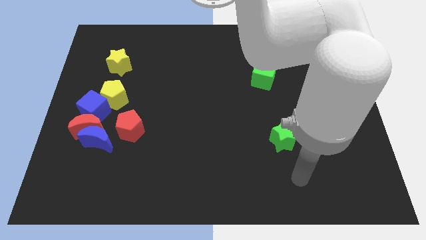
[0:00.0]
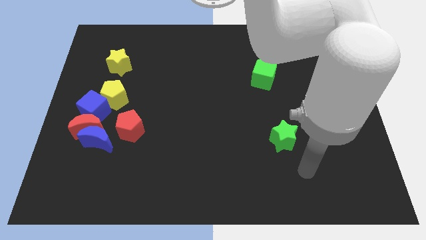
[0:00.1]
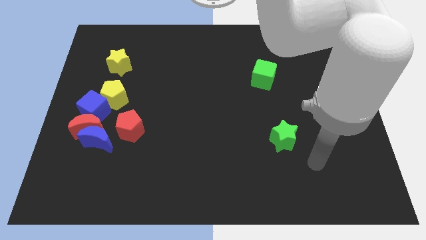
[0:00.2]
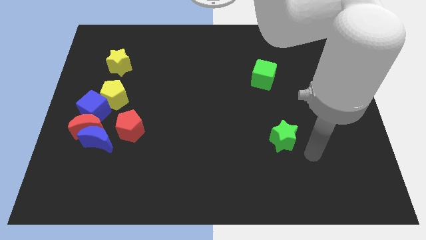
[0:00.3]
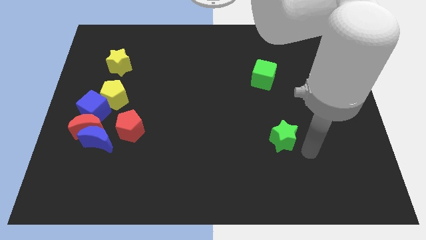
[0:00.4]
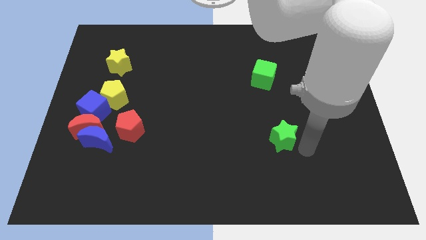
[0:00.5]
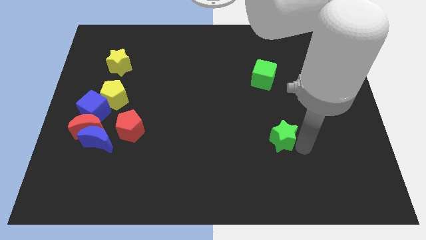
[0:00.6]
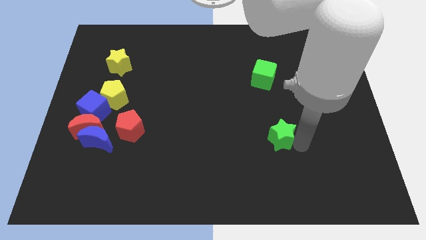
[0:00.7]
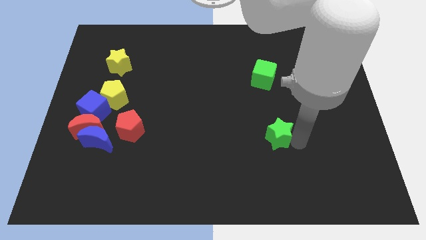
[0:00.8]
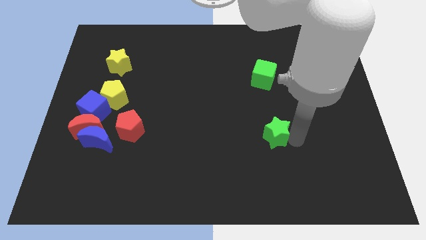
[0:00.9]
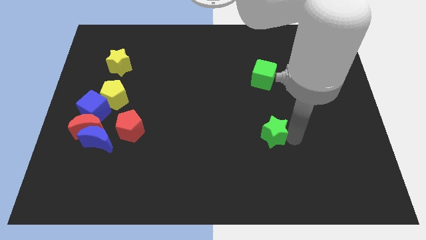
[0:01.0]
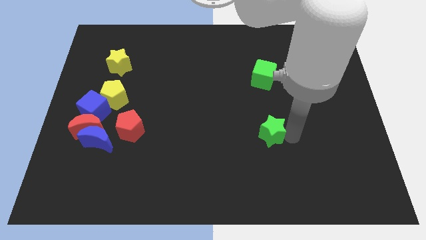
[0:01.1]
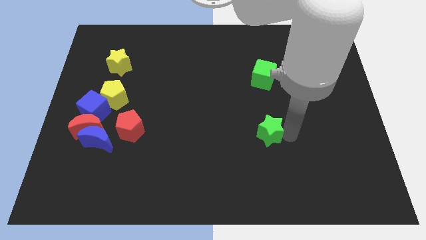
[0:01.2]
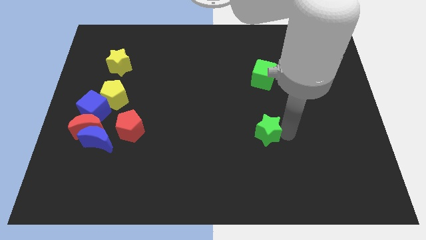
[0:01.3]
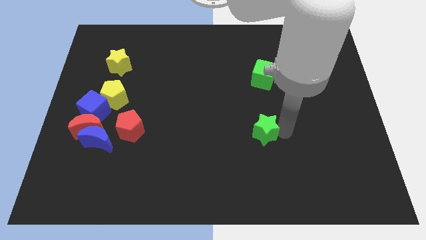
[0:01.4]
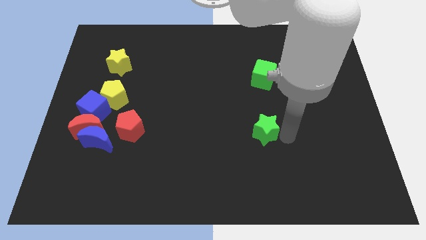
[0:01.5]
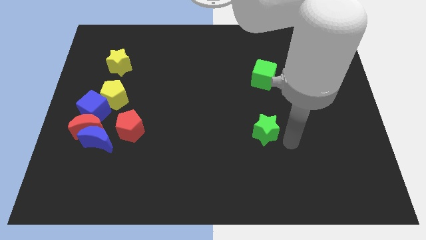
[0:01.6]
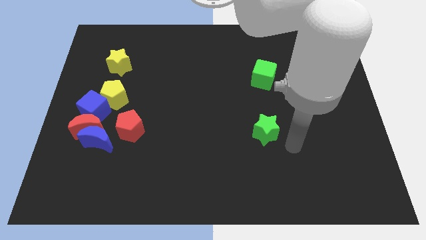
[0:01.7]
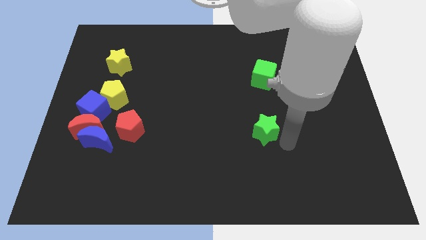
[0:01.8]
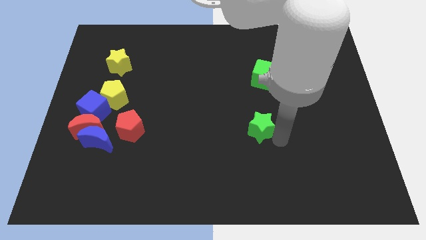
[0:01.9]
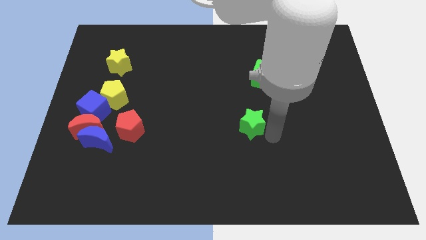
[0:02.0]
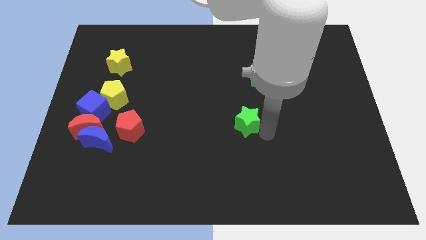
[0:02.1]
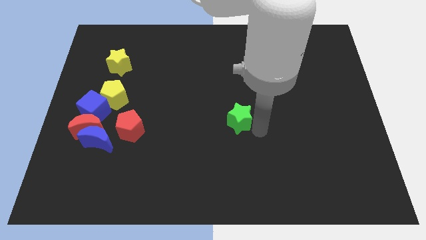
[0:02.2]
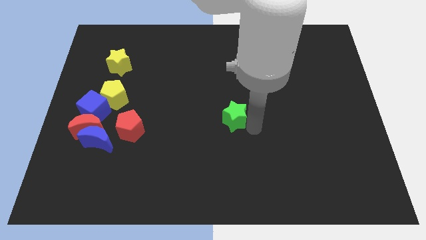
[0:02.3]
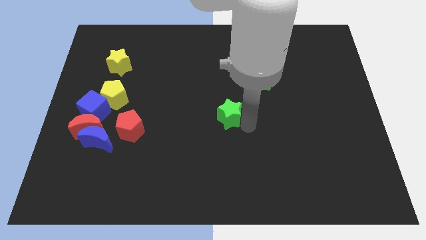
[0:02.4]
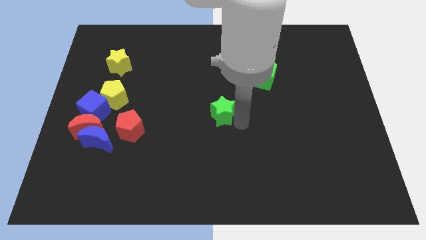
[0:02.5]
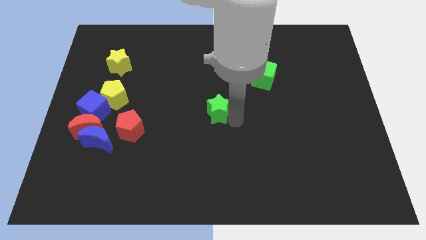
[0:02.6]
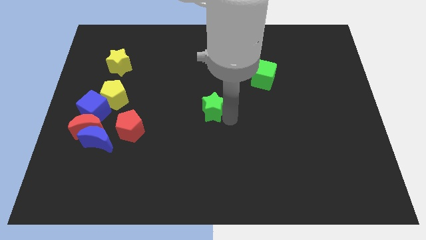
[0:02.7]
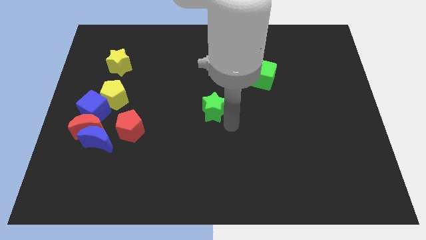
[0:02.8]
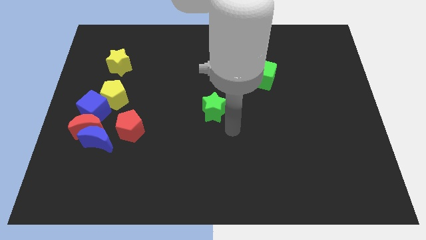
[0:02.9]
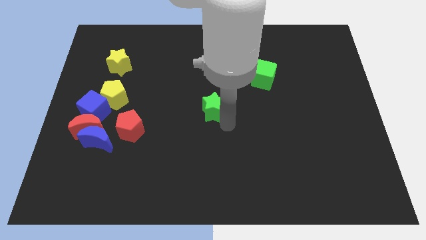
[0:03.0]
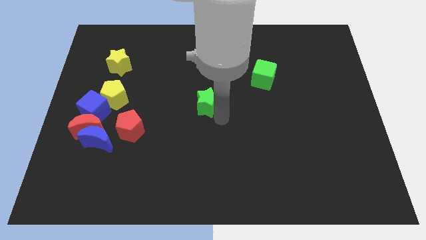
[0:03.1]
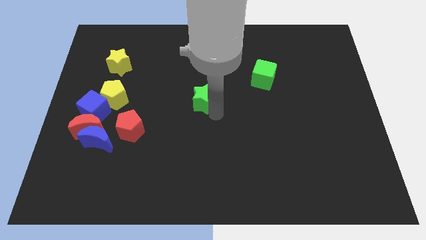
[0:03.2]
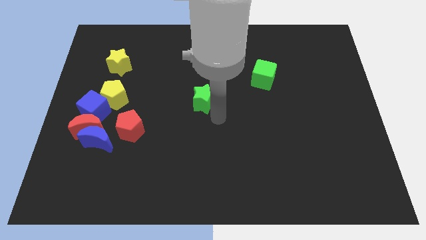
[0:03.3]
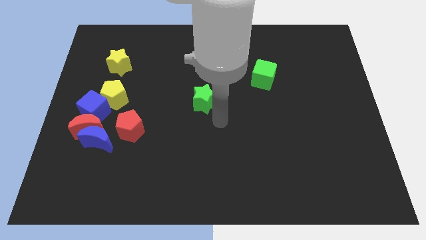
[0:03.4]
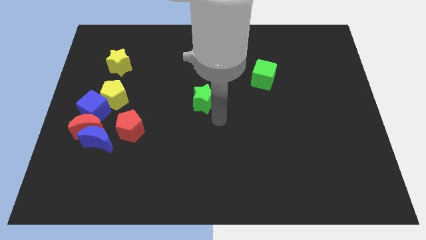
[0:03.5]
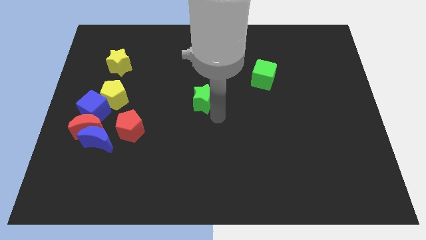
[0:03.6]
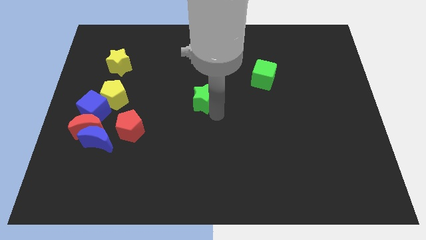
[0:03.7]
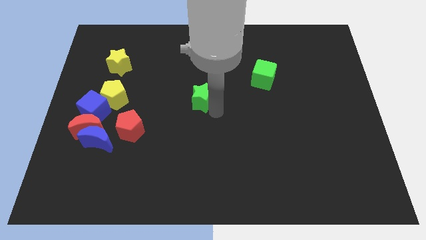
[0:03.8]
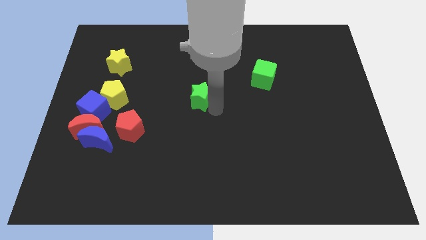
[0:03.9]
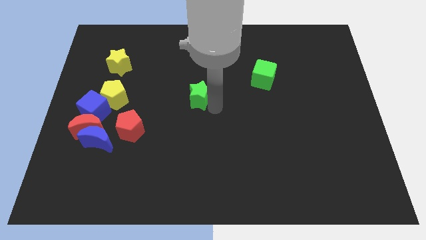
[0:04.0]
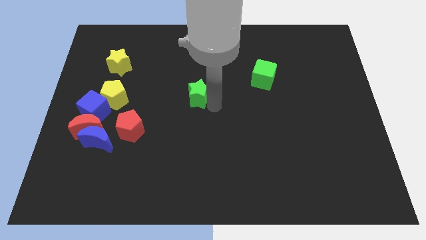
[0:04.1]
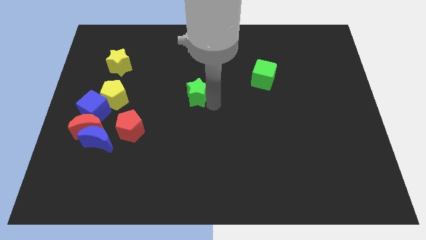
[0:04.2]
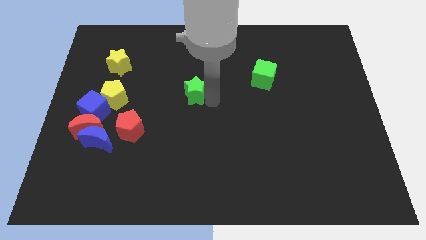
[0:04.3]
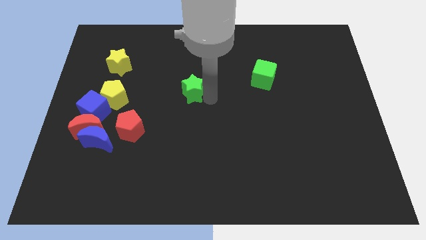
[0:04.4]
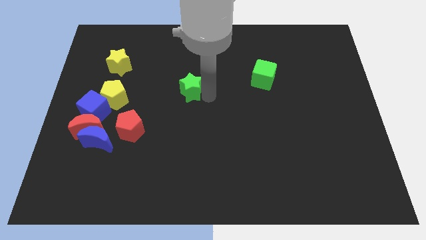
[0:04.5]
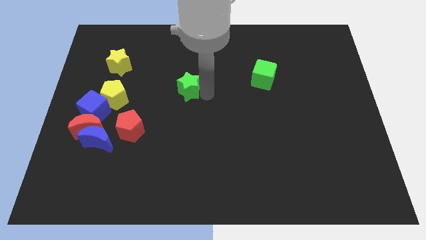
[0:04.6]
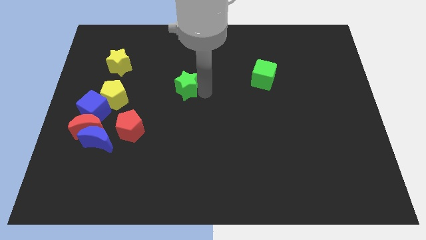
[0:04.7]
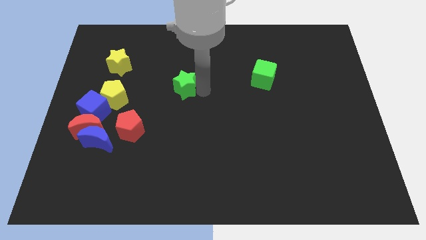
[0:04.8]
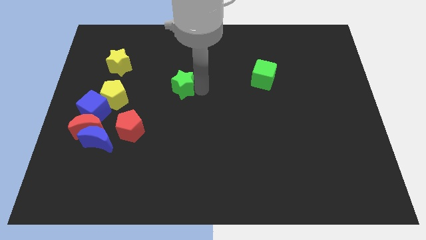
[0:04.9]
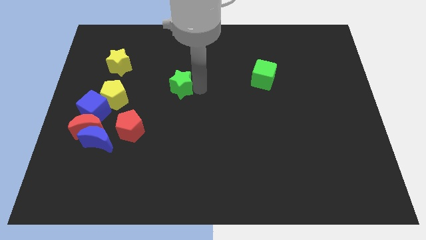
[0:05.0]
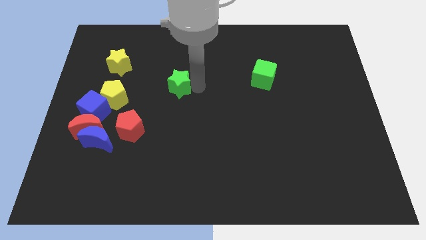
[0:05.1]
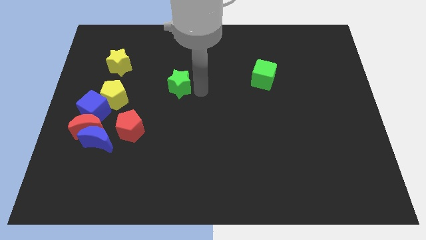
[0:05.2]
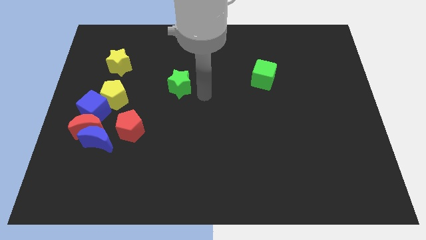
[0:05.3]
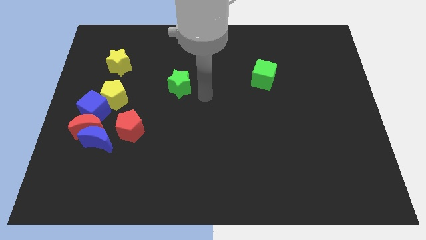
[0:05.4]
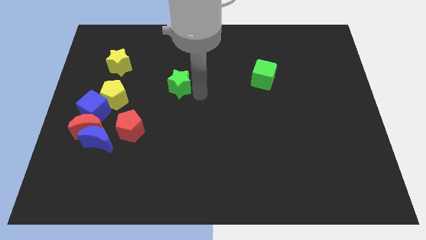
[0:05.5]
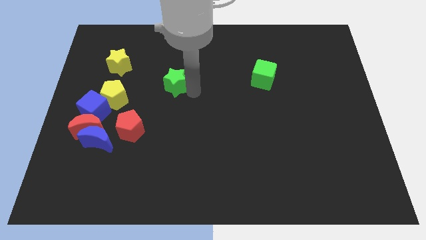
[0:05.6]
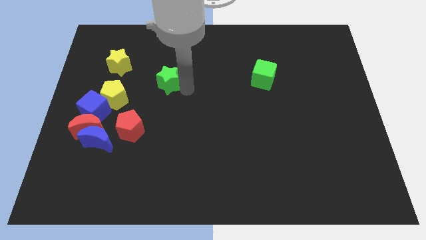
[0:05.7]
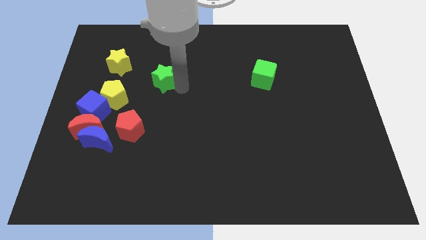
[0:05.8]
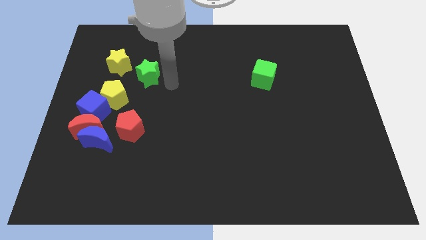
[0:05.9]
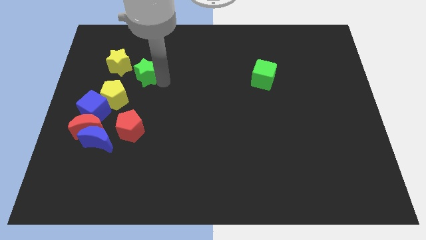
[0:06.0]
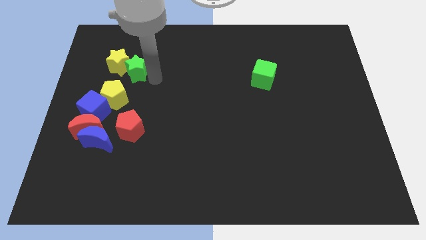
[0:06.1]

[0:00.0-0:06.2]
put the green star towards the yellow star

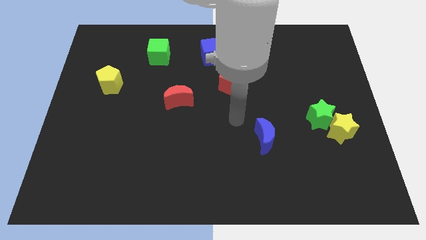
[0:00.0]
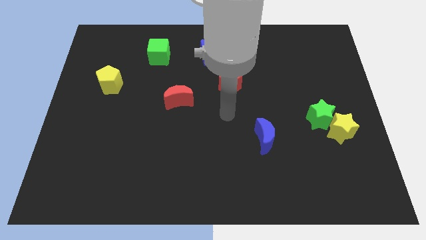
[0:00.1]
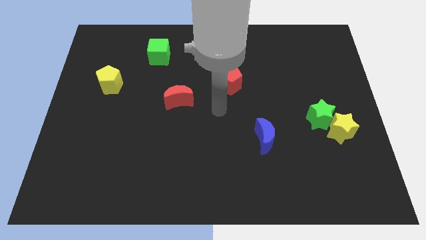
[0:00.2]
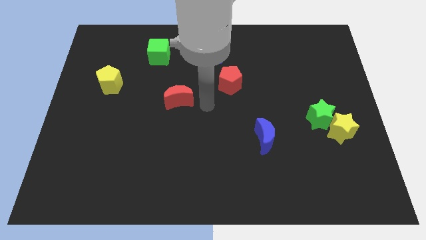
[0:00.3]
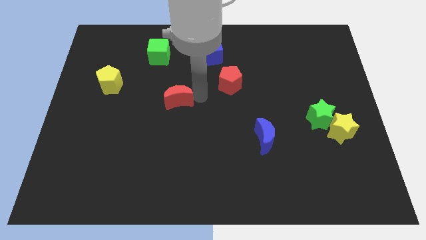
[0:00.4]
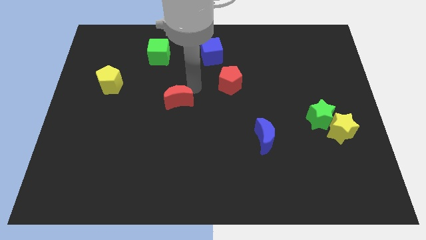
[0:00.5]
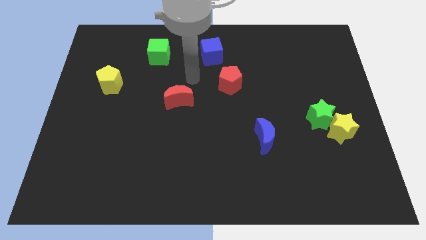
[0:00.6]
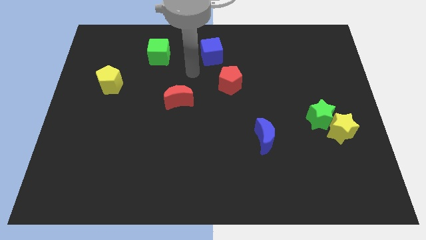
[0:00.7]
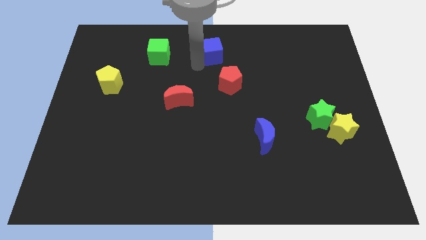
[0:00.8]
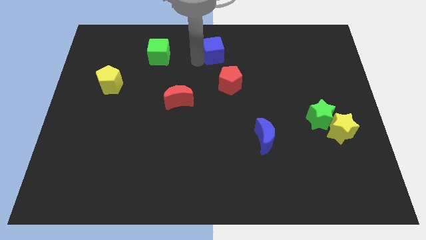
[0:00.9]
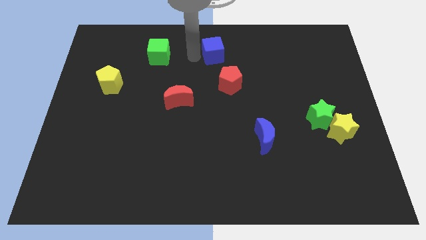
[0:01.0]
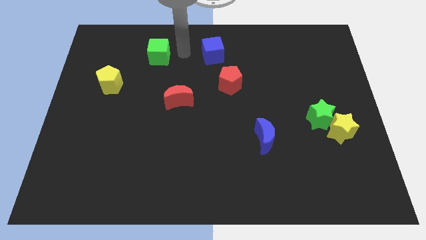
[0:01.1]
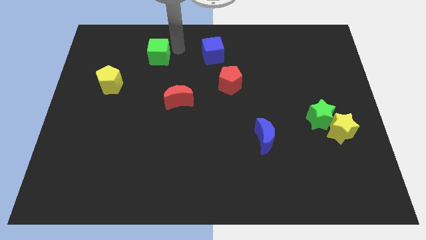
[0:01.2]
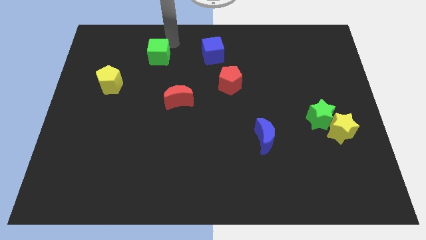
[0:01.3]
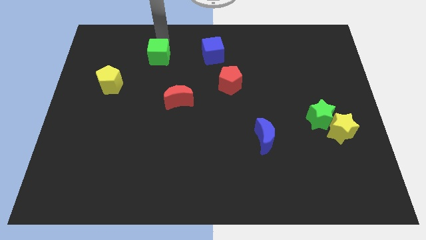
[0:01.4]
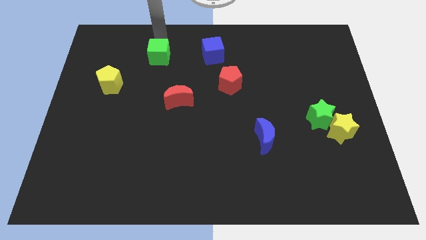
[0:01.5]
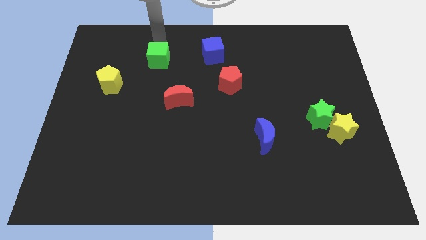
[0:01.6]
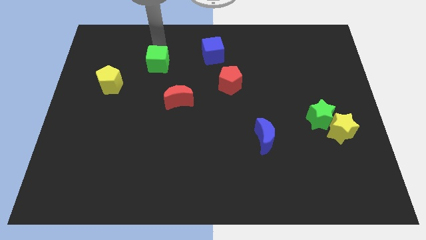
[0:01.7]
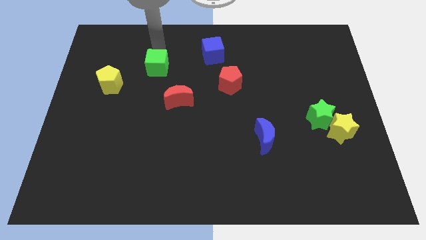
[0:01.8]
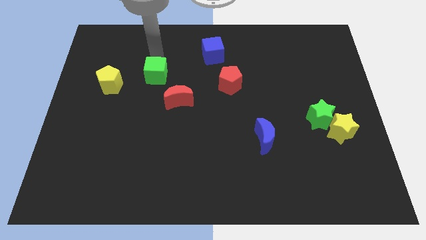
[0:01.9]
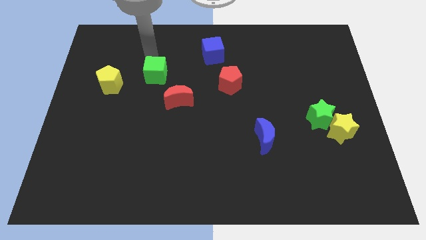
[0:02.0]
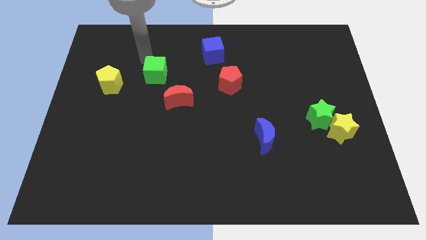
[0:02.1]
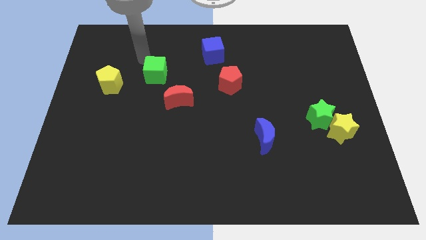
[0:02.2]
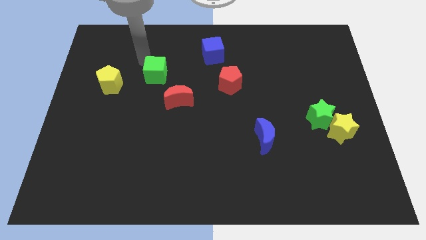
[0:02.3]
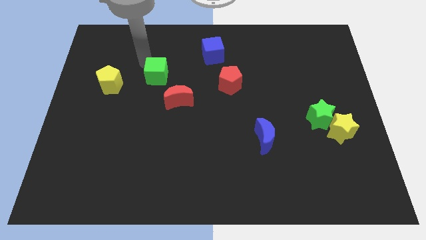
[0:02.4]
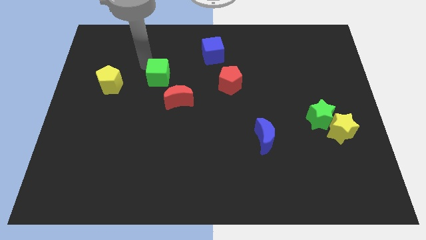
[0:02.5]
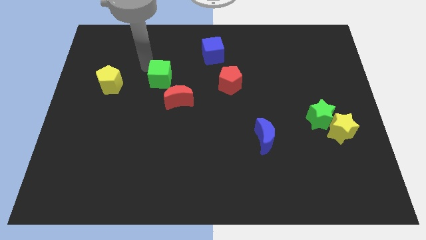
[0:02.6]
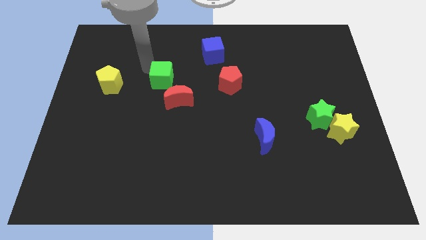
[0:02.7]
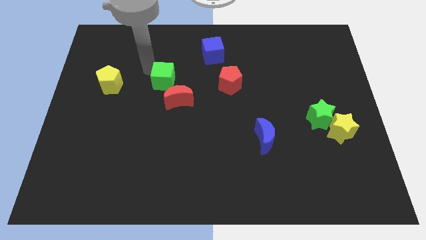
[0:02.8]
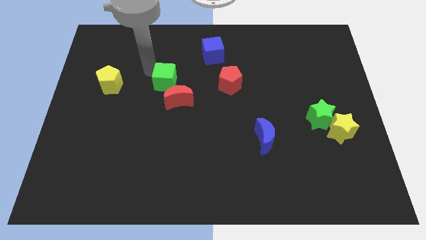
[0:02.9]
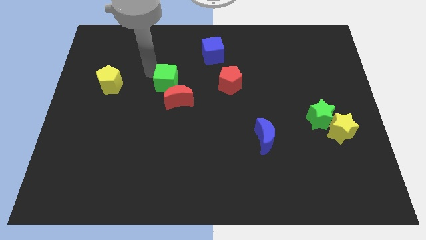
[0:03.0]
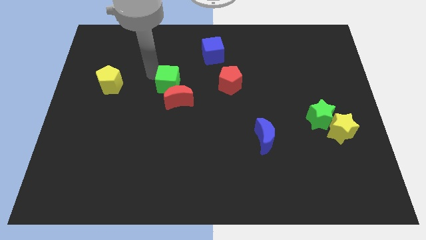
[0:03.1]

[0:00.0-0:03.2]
slide the green cube to the red moon
